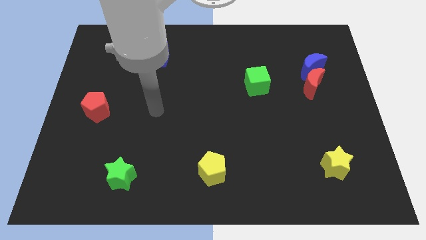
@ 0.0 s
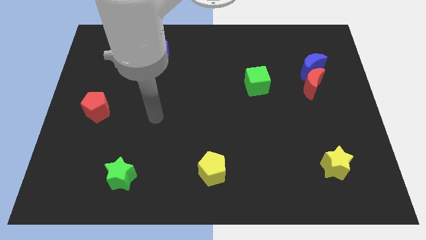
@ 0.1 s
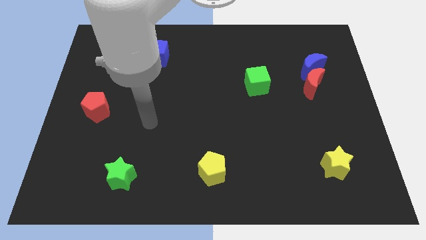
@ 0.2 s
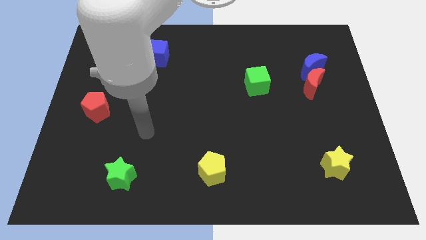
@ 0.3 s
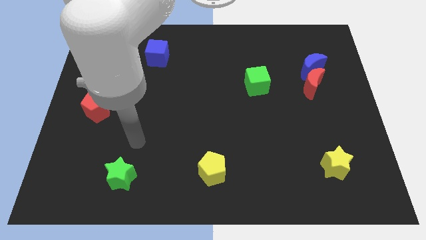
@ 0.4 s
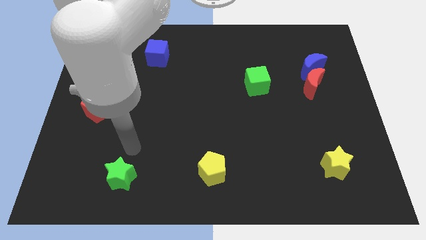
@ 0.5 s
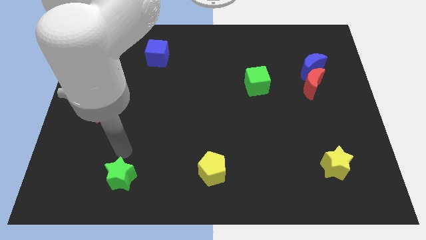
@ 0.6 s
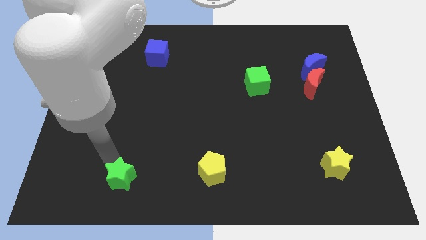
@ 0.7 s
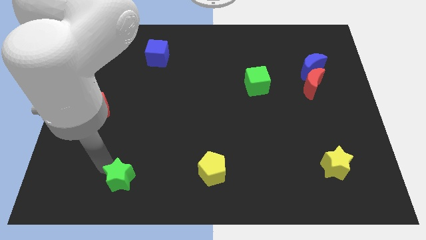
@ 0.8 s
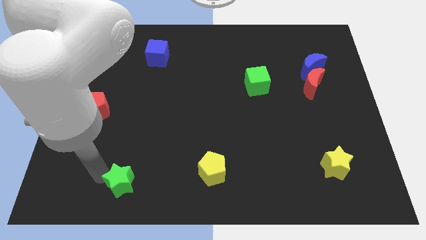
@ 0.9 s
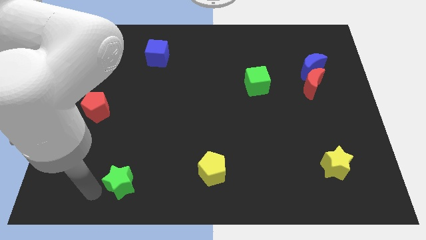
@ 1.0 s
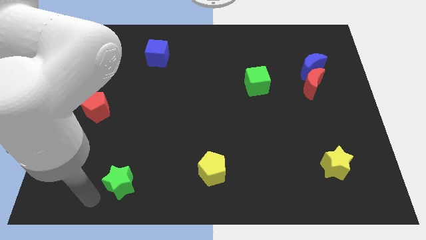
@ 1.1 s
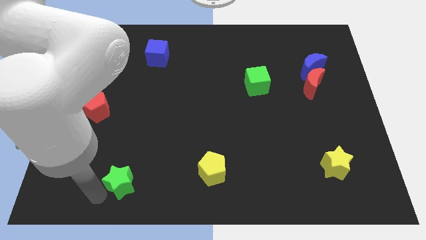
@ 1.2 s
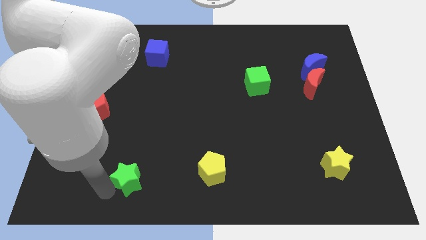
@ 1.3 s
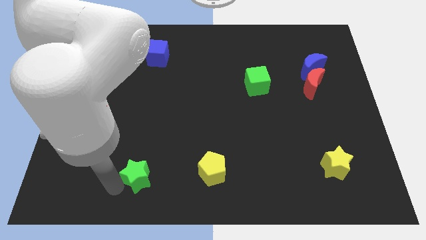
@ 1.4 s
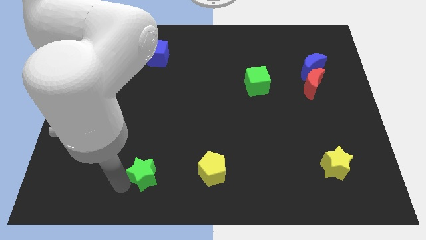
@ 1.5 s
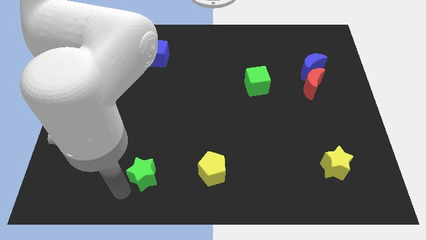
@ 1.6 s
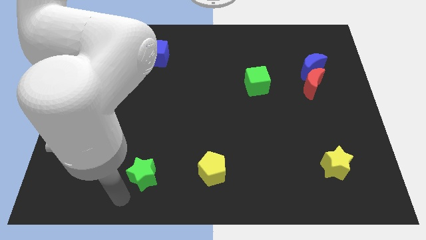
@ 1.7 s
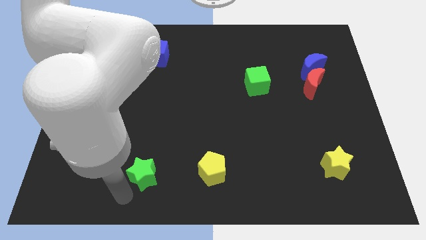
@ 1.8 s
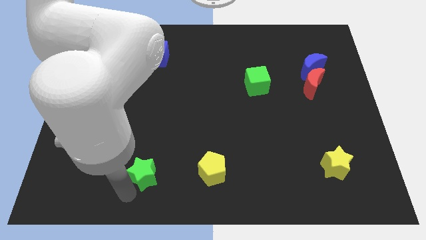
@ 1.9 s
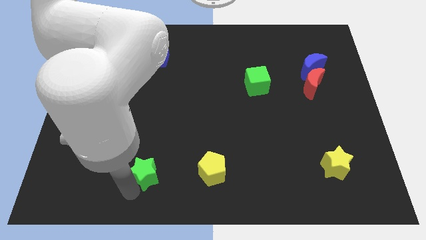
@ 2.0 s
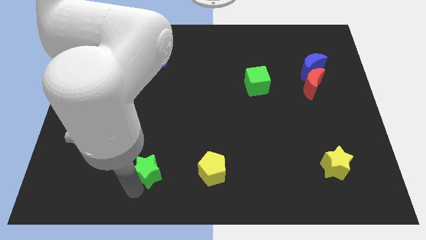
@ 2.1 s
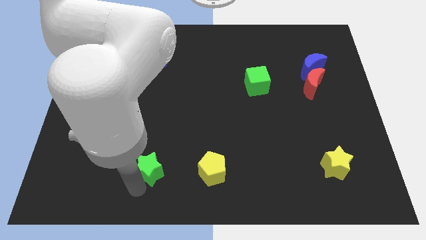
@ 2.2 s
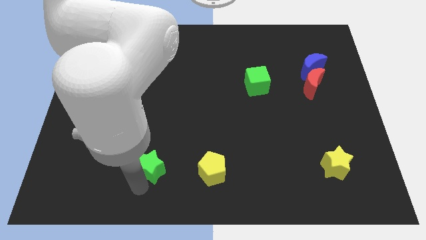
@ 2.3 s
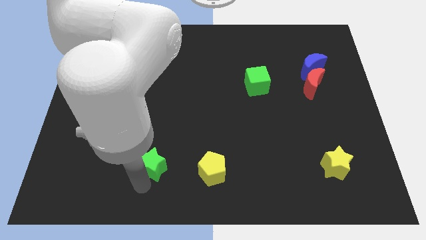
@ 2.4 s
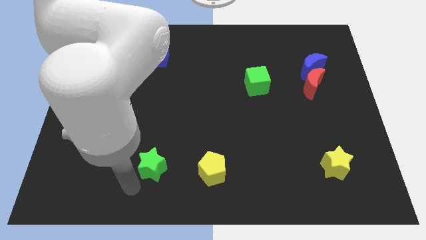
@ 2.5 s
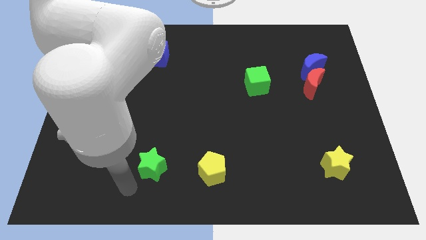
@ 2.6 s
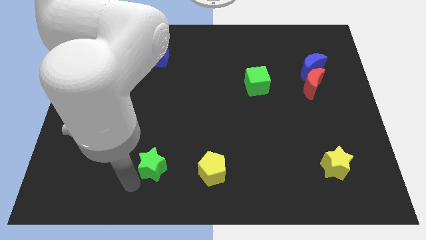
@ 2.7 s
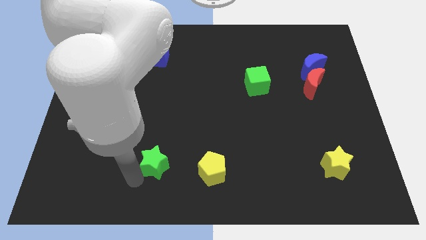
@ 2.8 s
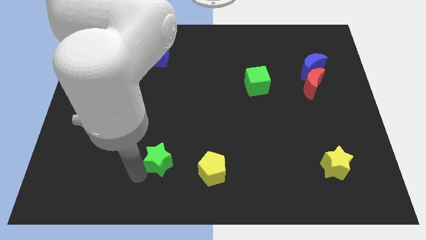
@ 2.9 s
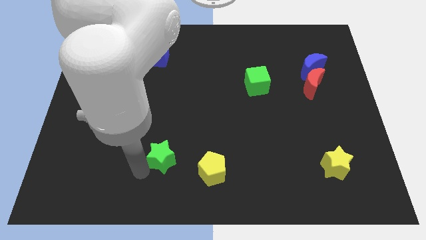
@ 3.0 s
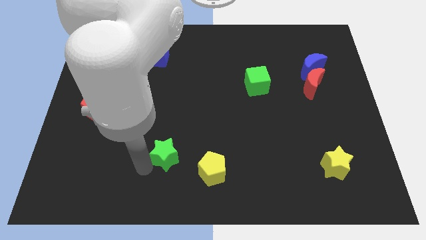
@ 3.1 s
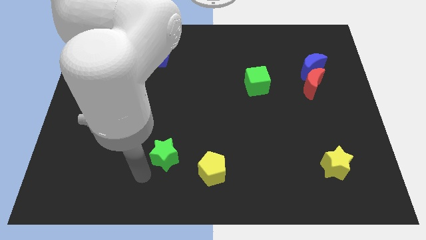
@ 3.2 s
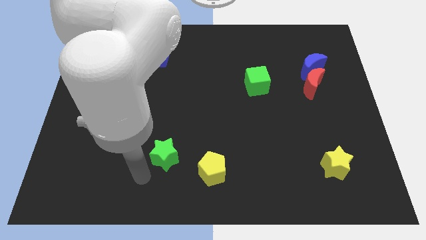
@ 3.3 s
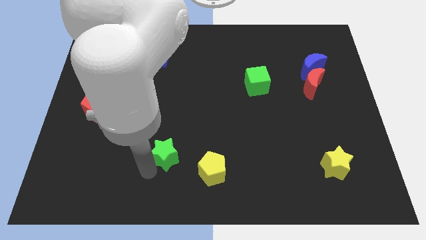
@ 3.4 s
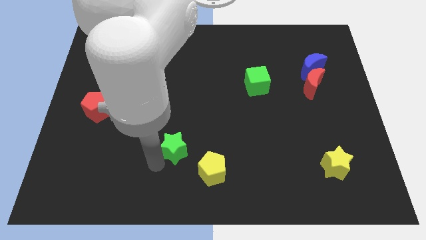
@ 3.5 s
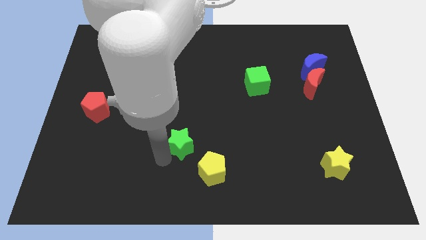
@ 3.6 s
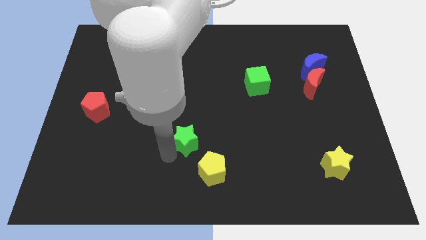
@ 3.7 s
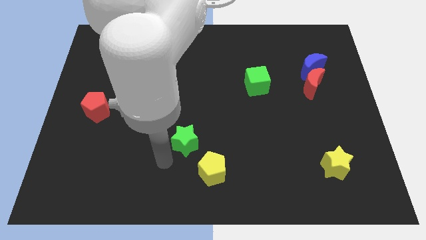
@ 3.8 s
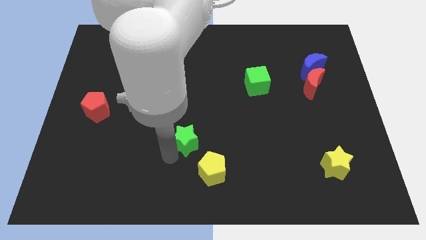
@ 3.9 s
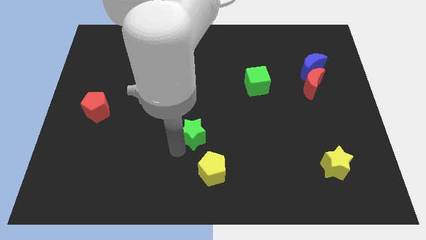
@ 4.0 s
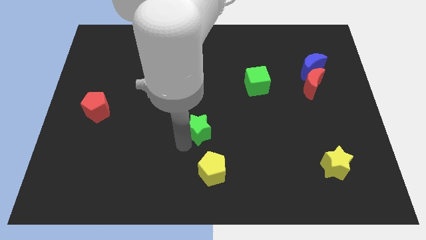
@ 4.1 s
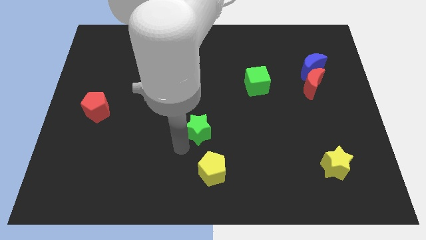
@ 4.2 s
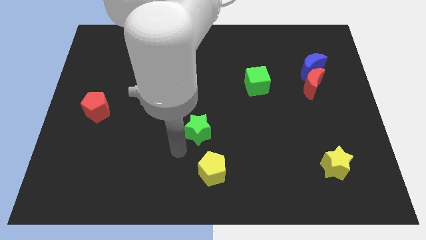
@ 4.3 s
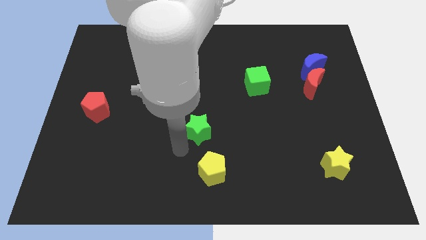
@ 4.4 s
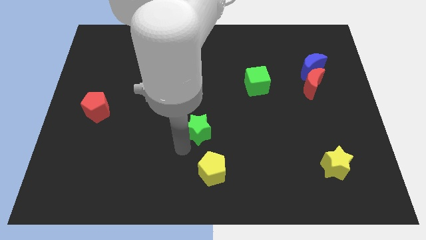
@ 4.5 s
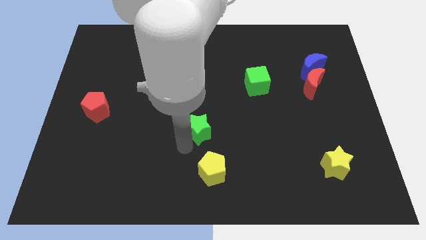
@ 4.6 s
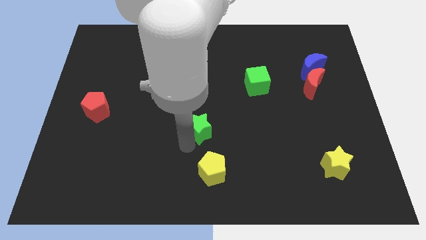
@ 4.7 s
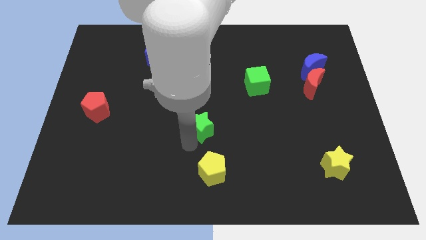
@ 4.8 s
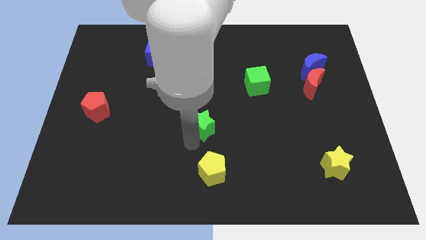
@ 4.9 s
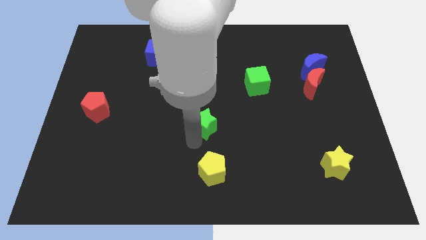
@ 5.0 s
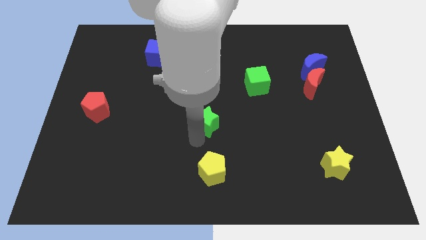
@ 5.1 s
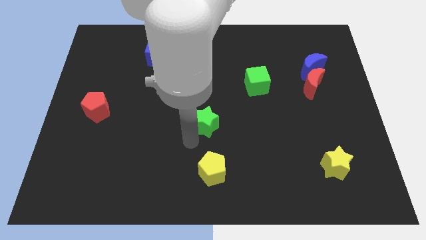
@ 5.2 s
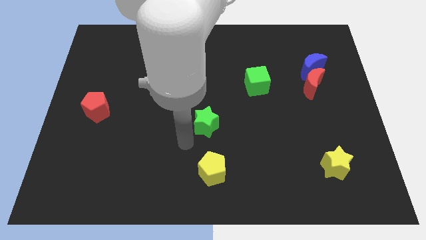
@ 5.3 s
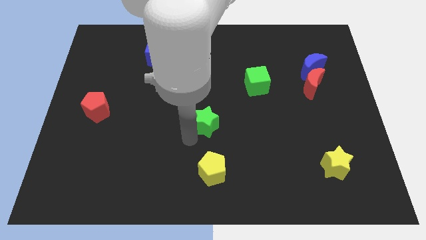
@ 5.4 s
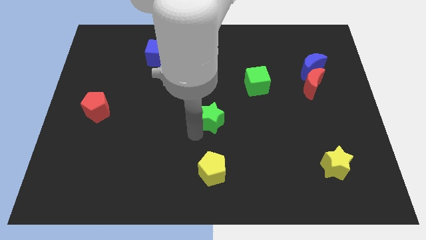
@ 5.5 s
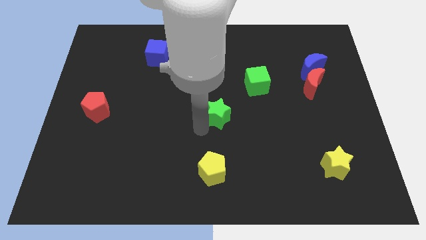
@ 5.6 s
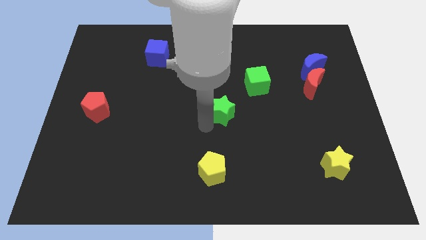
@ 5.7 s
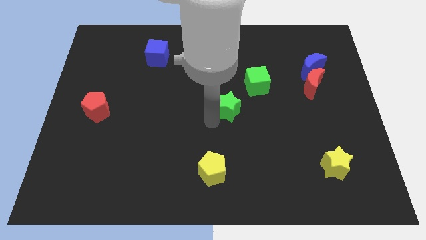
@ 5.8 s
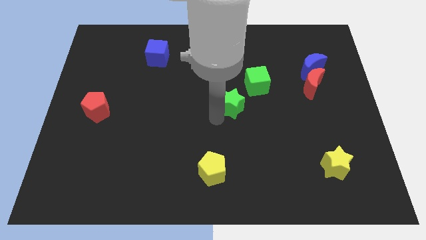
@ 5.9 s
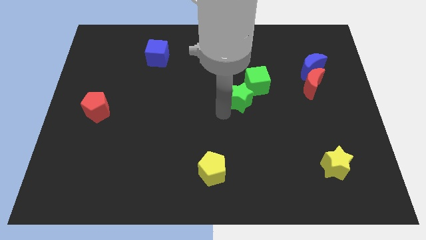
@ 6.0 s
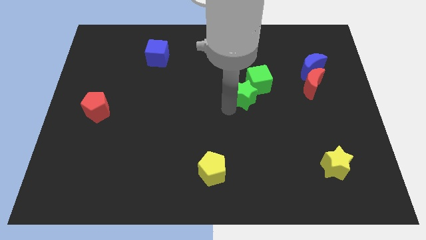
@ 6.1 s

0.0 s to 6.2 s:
push the green star next to the green cube
